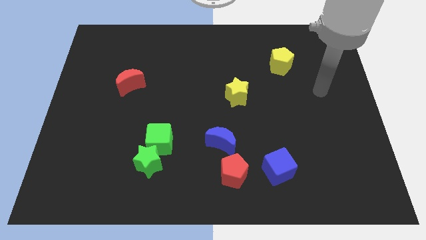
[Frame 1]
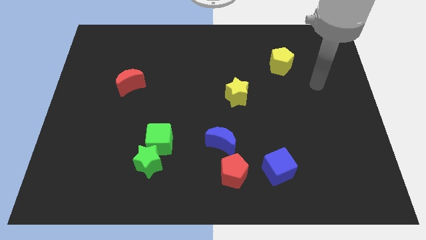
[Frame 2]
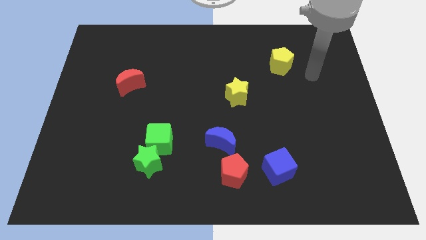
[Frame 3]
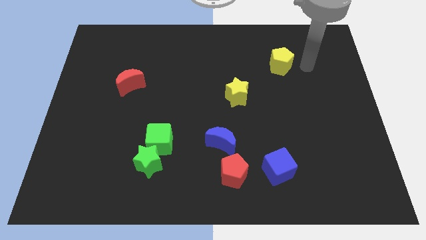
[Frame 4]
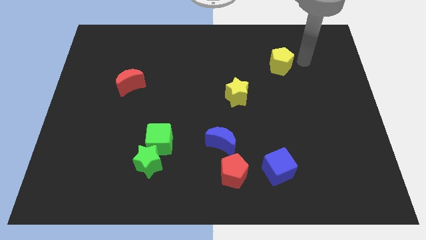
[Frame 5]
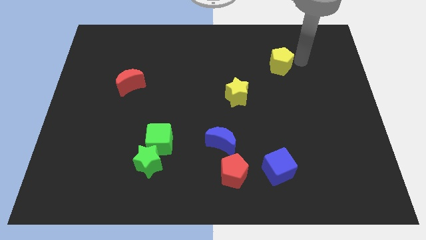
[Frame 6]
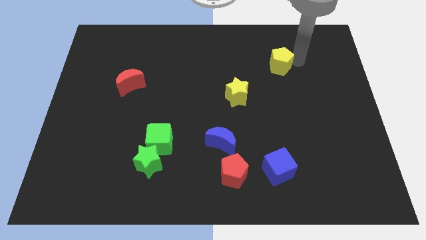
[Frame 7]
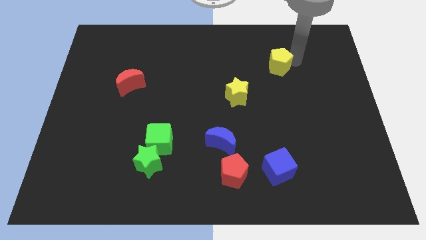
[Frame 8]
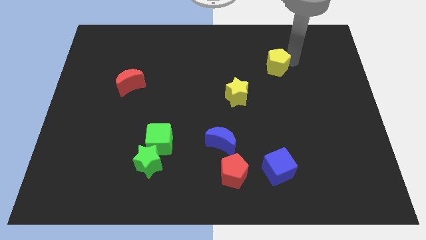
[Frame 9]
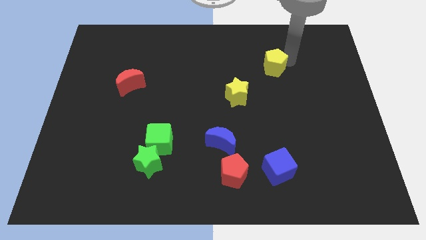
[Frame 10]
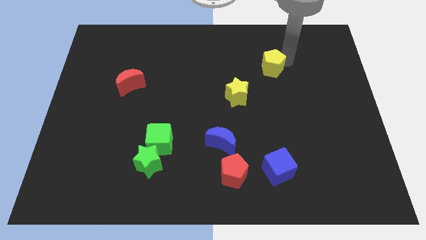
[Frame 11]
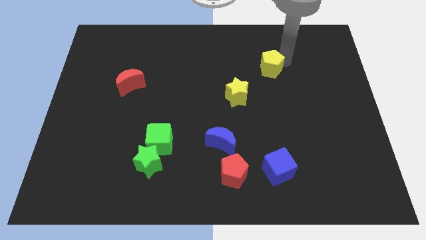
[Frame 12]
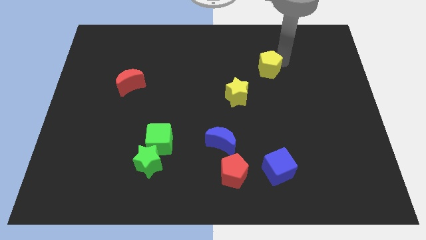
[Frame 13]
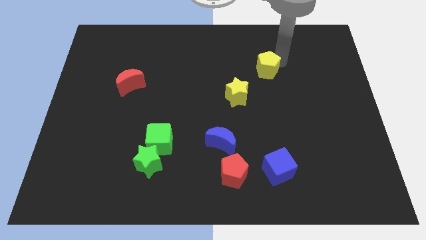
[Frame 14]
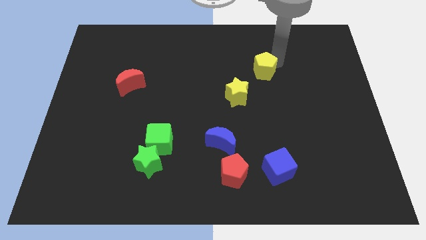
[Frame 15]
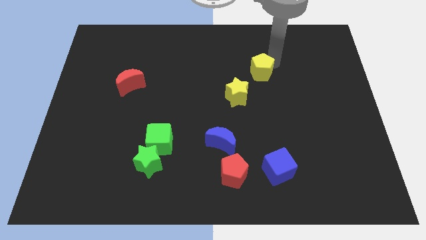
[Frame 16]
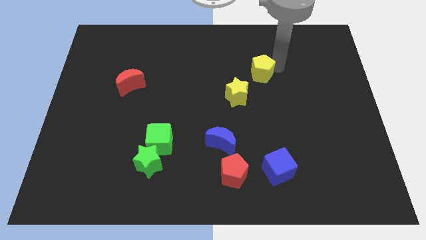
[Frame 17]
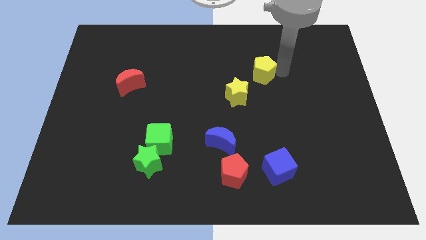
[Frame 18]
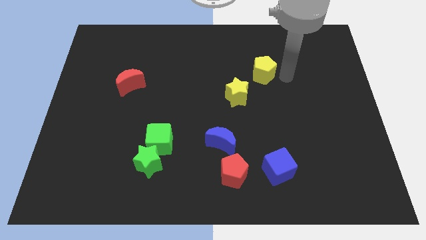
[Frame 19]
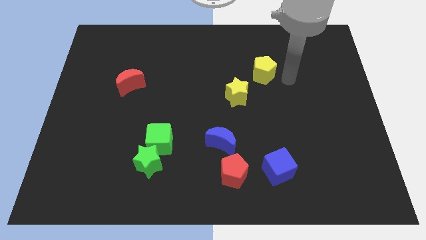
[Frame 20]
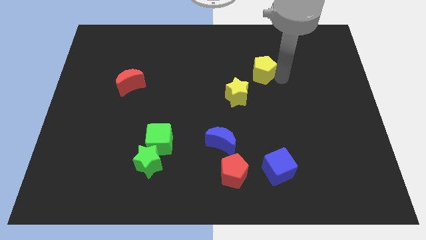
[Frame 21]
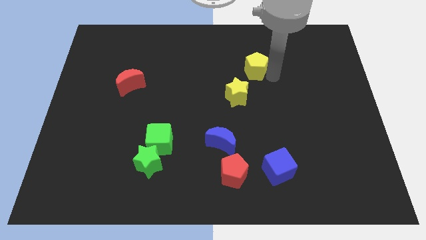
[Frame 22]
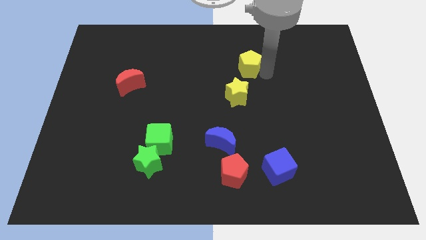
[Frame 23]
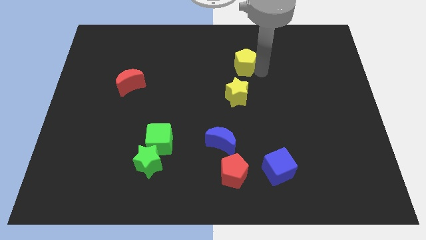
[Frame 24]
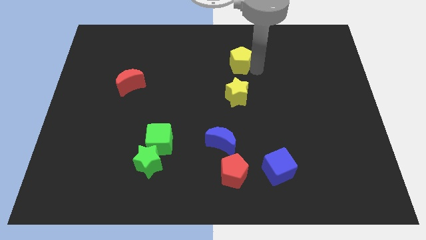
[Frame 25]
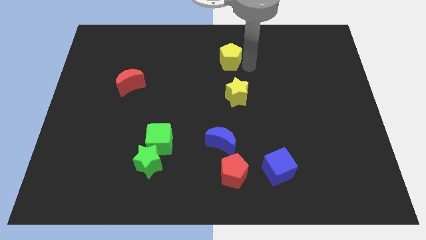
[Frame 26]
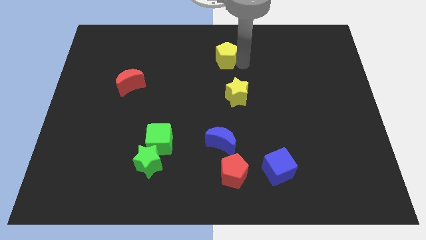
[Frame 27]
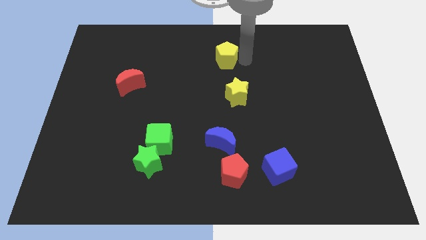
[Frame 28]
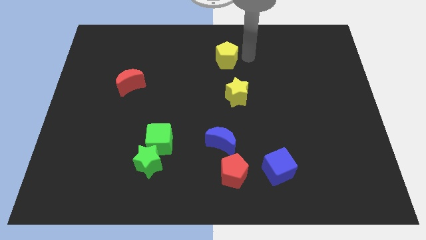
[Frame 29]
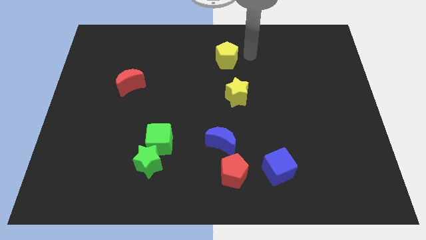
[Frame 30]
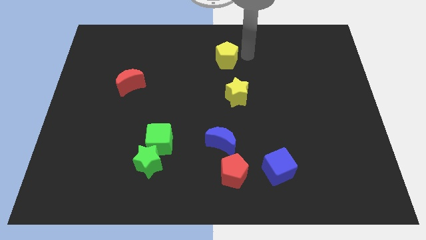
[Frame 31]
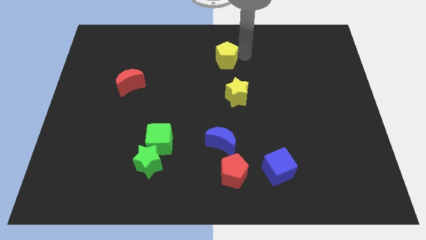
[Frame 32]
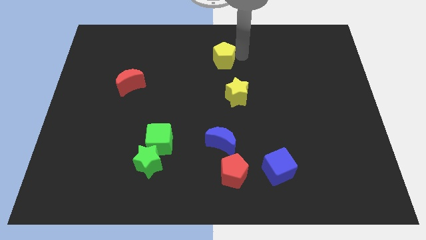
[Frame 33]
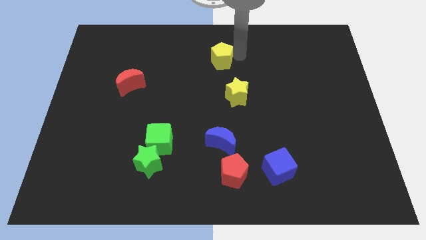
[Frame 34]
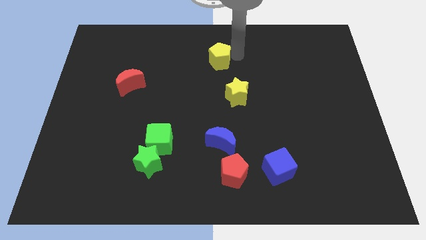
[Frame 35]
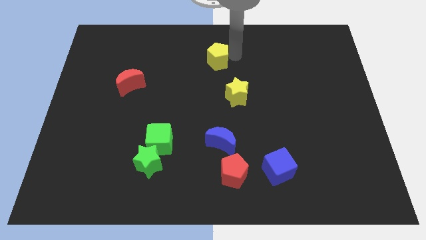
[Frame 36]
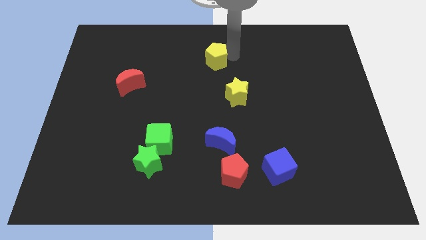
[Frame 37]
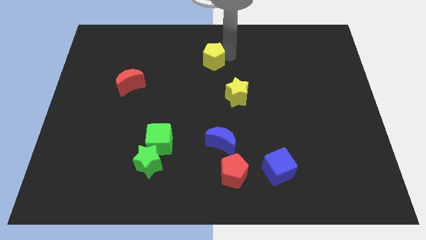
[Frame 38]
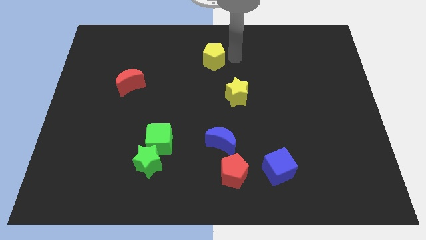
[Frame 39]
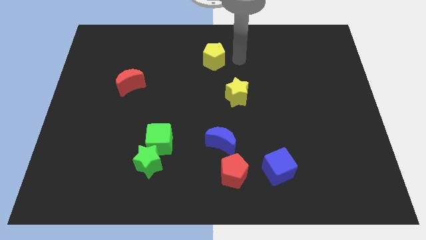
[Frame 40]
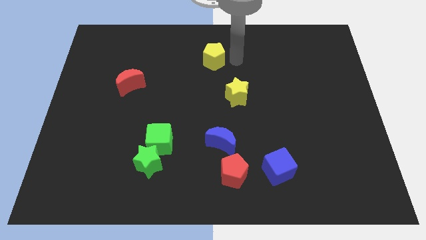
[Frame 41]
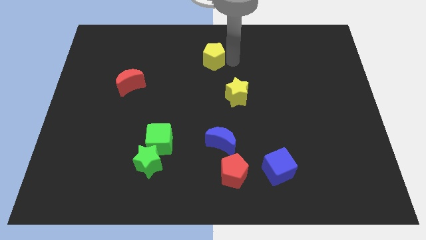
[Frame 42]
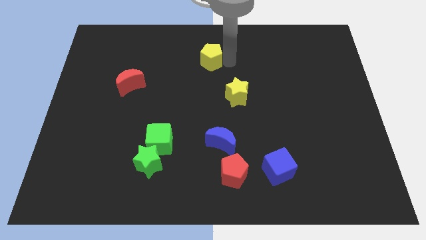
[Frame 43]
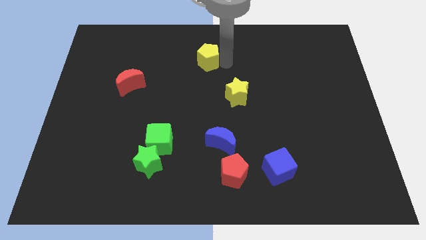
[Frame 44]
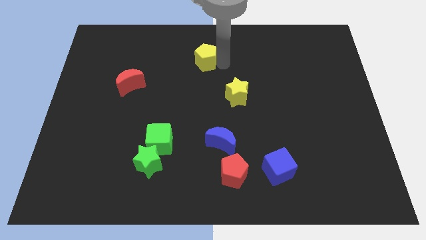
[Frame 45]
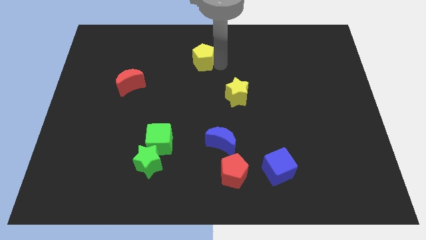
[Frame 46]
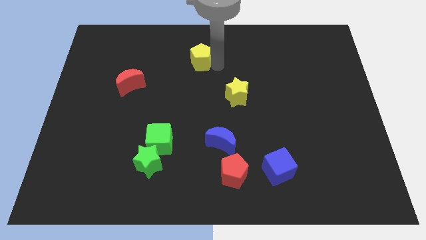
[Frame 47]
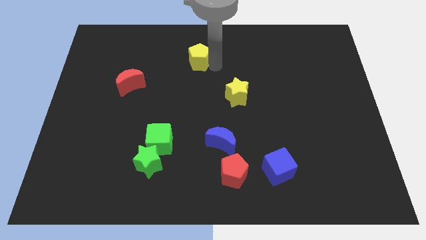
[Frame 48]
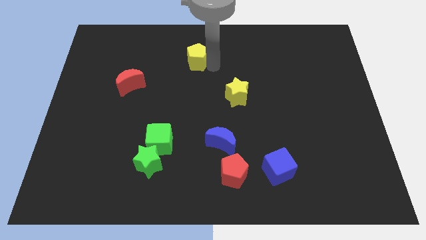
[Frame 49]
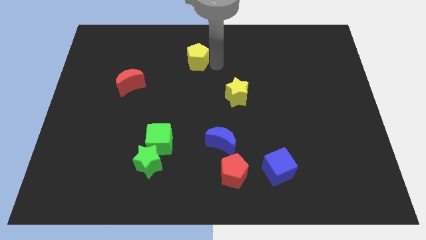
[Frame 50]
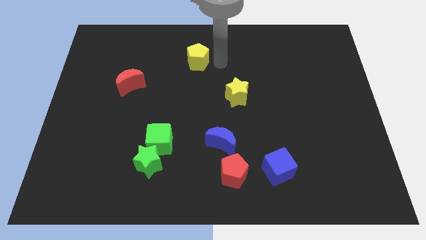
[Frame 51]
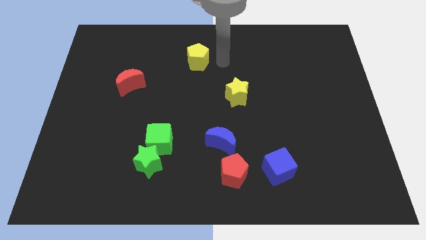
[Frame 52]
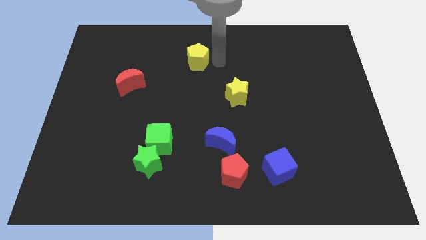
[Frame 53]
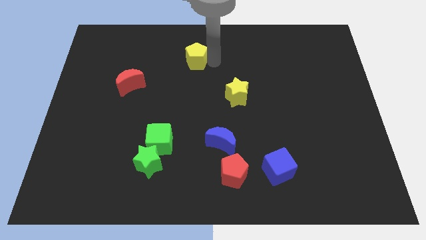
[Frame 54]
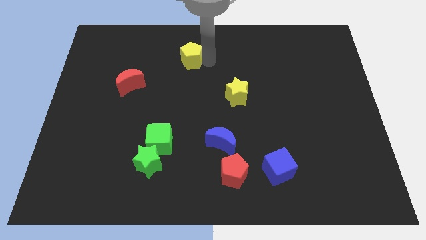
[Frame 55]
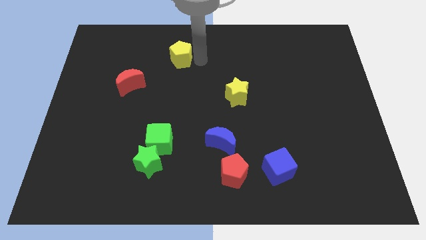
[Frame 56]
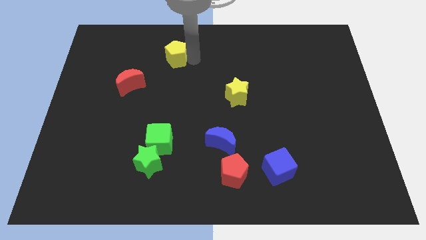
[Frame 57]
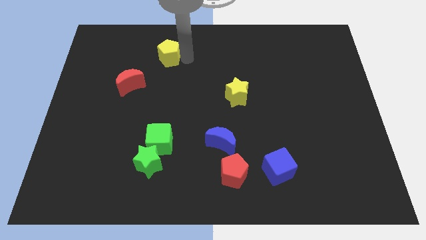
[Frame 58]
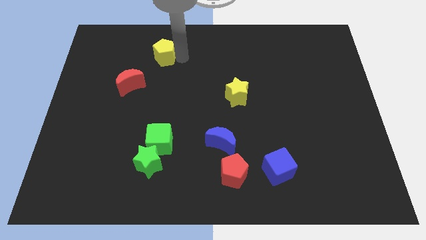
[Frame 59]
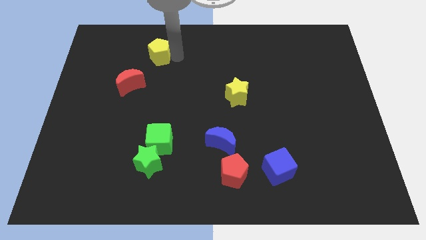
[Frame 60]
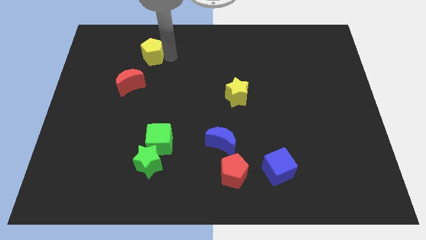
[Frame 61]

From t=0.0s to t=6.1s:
put the yellow pentagon above the red moon

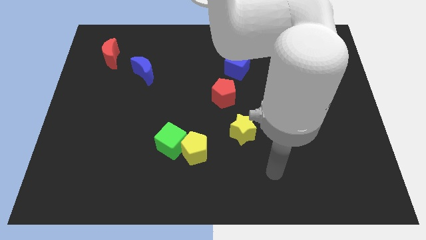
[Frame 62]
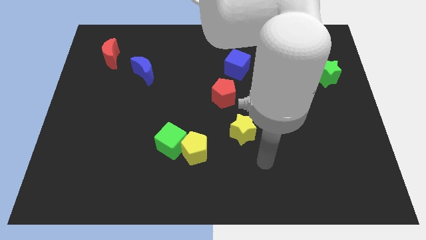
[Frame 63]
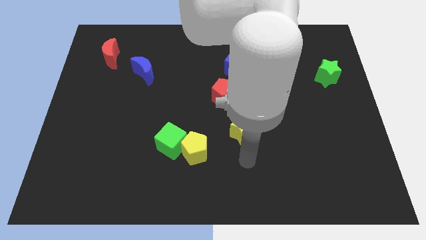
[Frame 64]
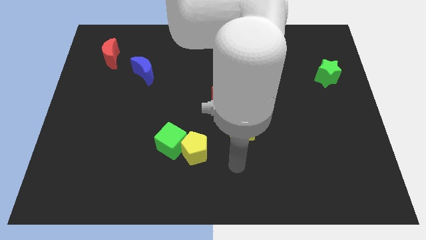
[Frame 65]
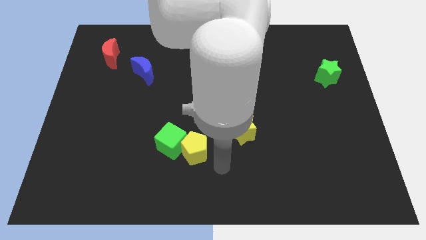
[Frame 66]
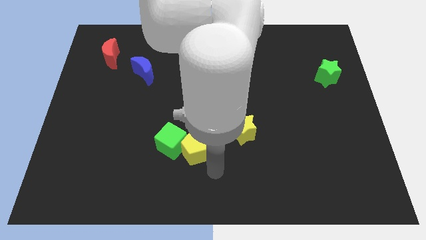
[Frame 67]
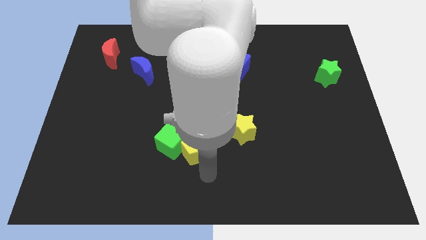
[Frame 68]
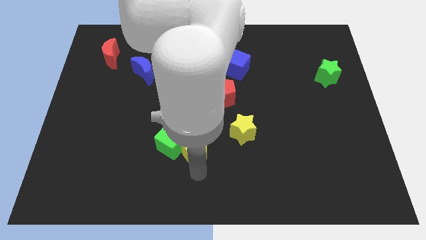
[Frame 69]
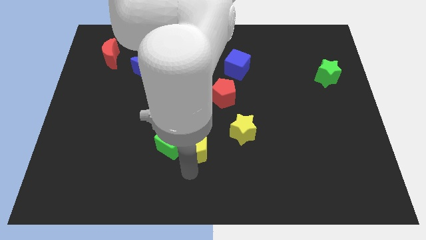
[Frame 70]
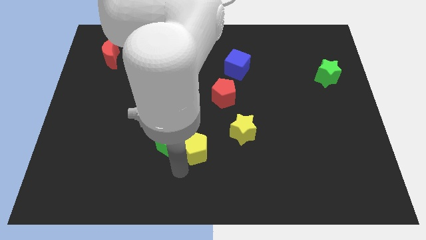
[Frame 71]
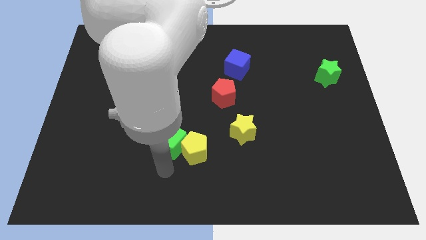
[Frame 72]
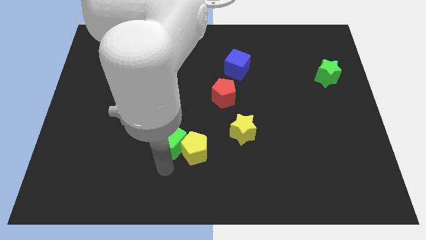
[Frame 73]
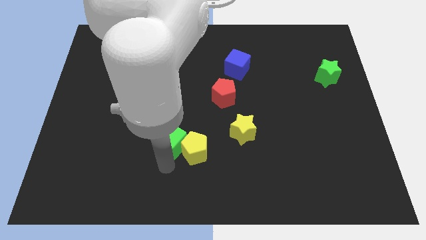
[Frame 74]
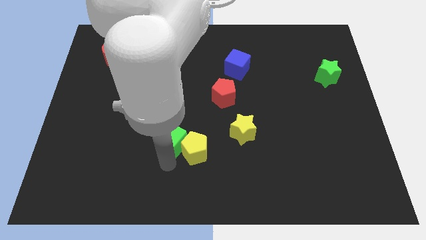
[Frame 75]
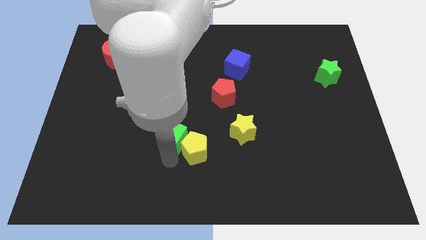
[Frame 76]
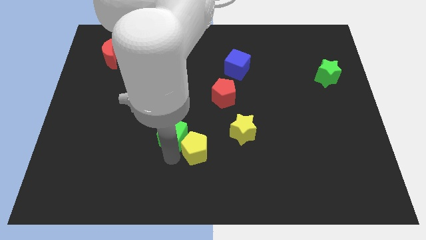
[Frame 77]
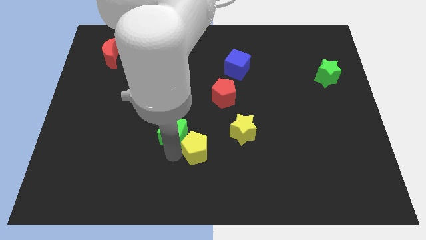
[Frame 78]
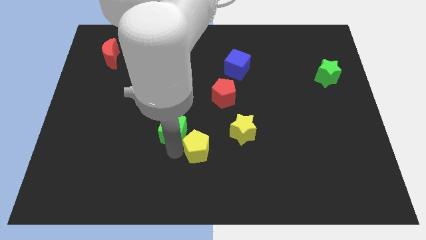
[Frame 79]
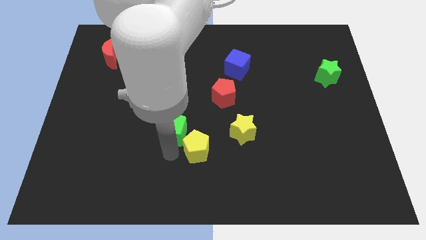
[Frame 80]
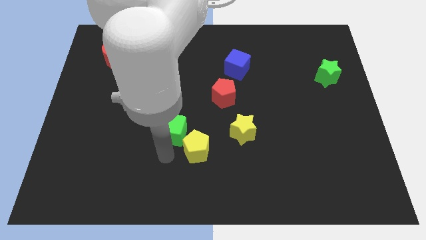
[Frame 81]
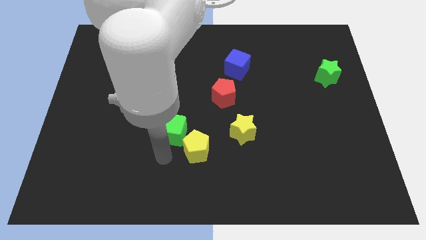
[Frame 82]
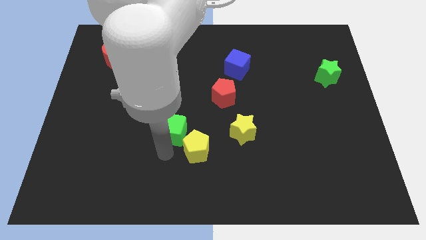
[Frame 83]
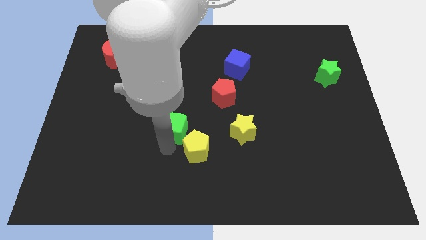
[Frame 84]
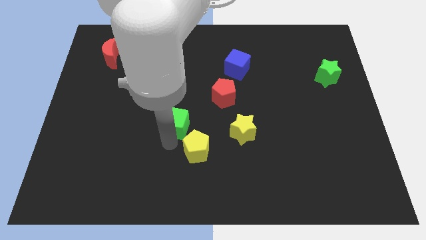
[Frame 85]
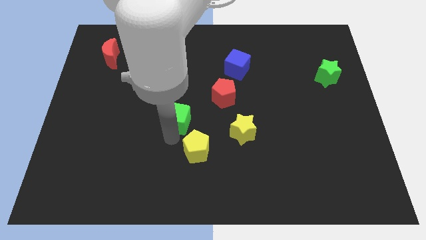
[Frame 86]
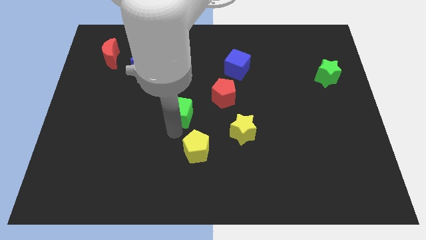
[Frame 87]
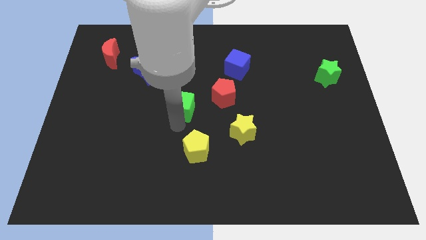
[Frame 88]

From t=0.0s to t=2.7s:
push the green cube to the left of the red pentagon
